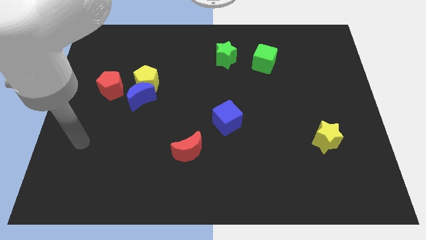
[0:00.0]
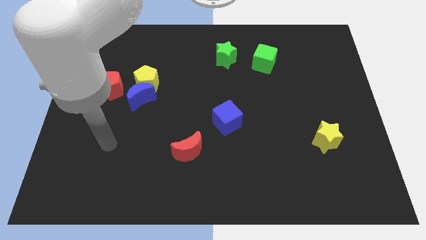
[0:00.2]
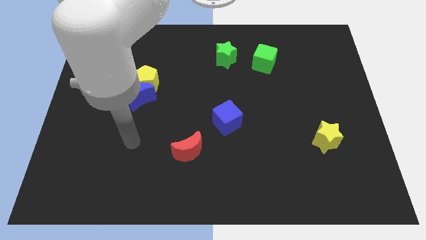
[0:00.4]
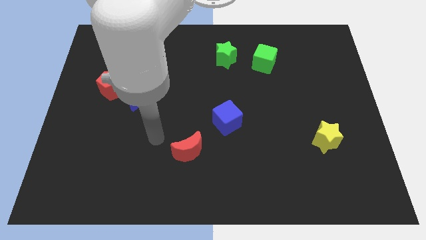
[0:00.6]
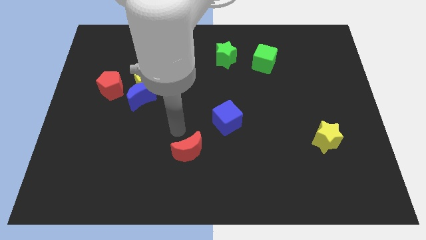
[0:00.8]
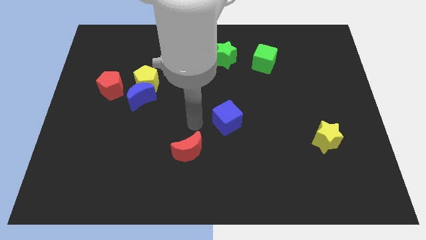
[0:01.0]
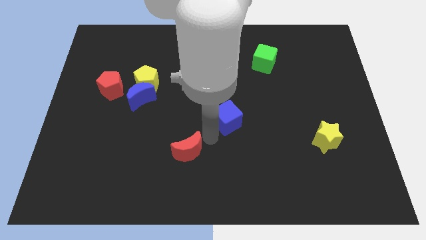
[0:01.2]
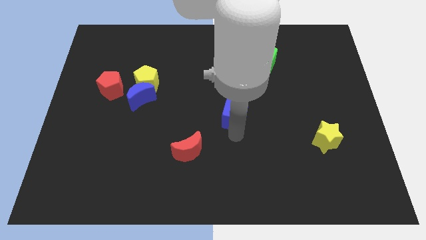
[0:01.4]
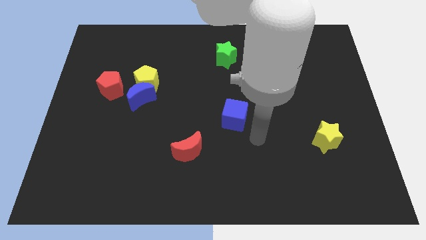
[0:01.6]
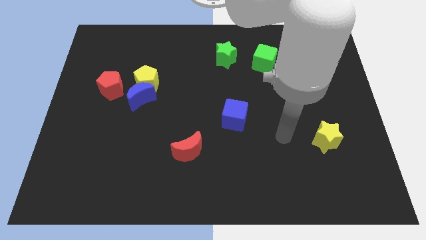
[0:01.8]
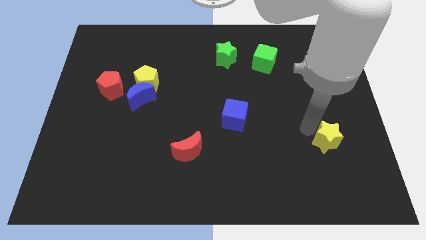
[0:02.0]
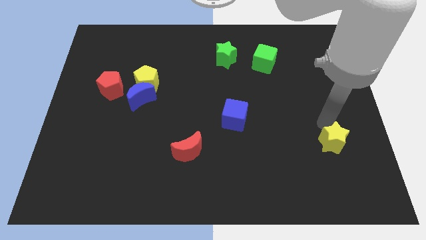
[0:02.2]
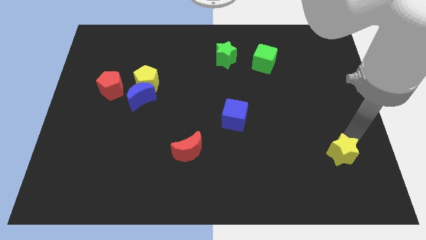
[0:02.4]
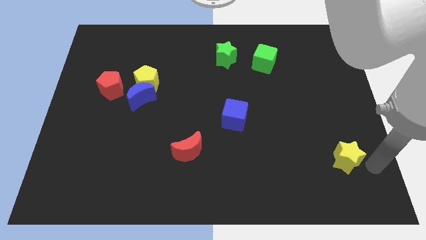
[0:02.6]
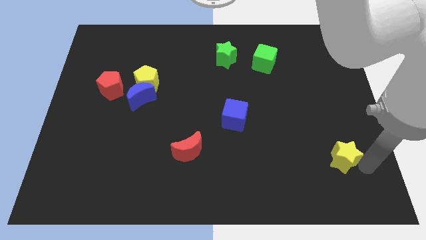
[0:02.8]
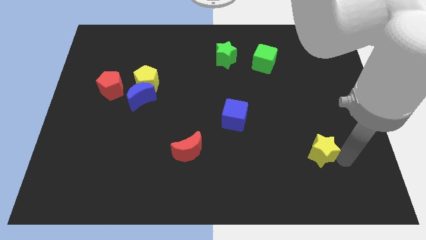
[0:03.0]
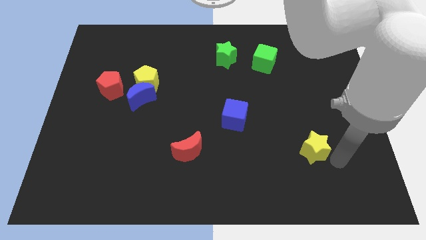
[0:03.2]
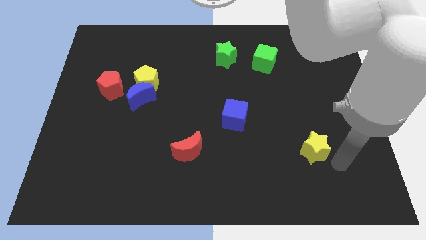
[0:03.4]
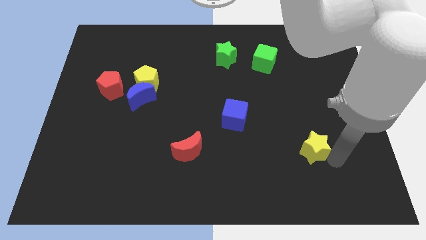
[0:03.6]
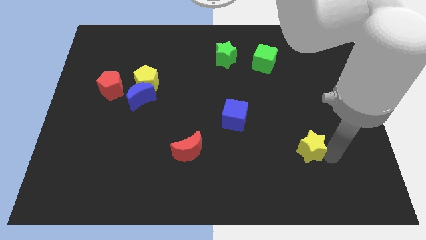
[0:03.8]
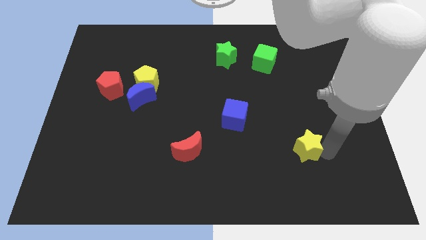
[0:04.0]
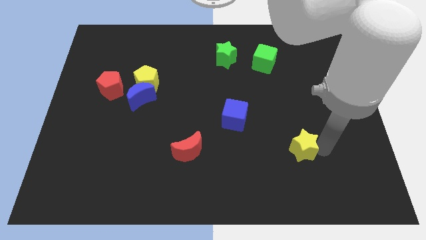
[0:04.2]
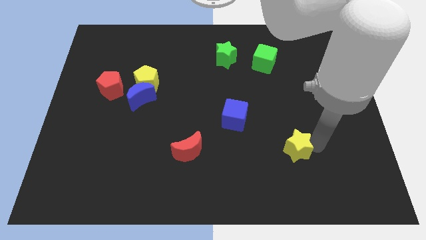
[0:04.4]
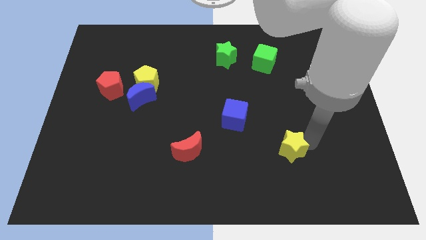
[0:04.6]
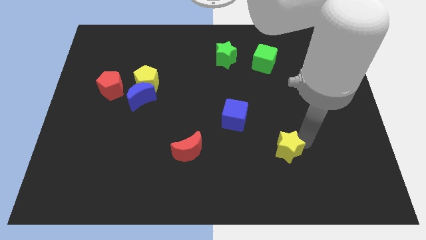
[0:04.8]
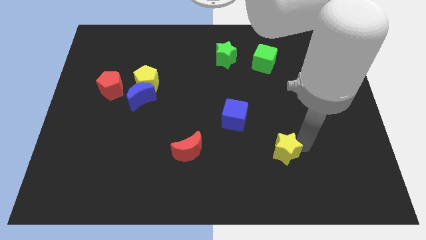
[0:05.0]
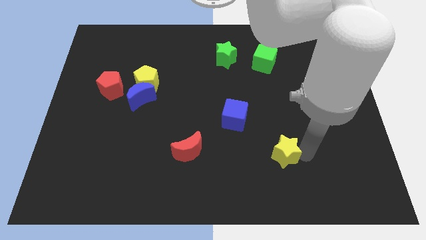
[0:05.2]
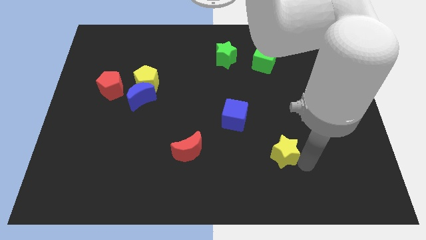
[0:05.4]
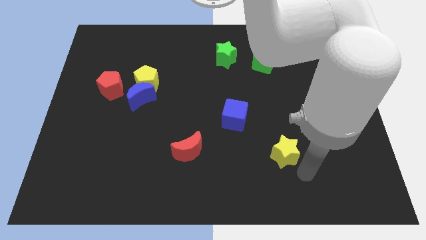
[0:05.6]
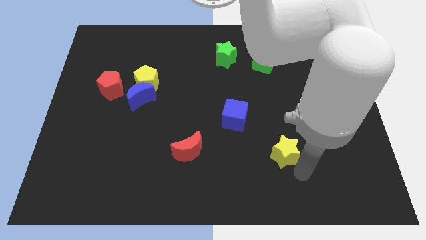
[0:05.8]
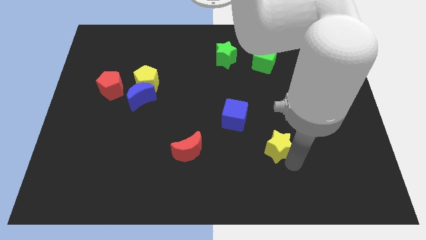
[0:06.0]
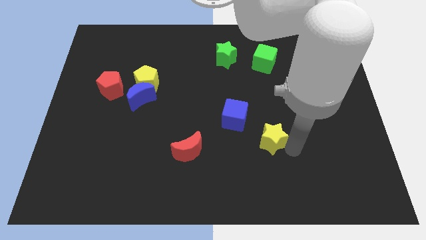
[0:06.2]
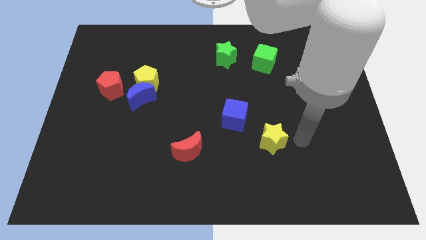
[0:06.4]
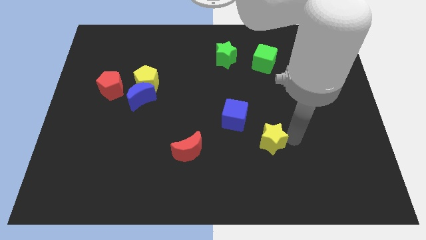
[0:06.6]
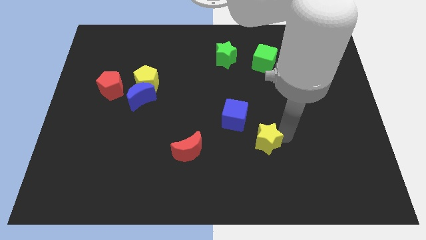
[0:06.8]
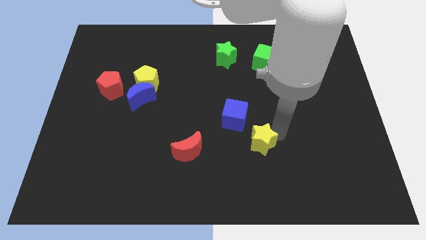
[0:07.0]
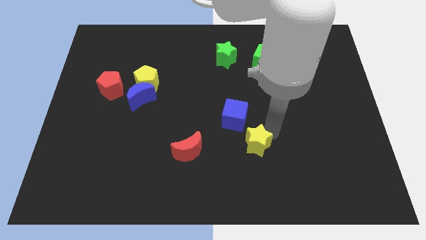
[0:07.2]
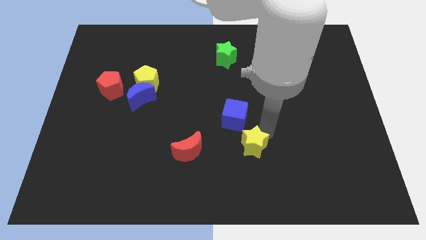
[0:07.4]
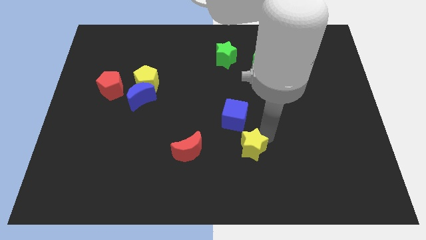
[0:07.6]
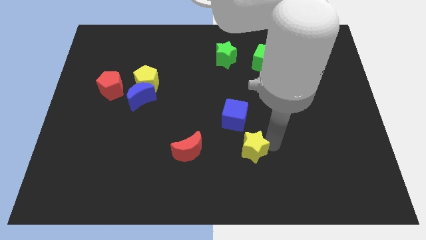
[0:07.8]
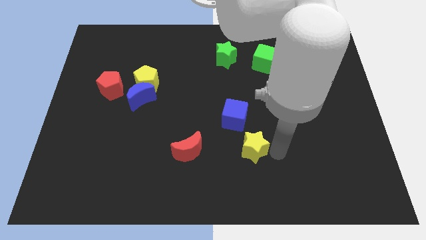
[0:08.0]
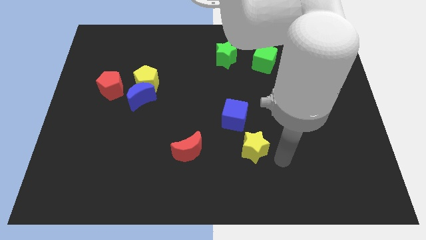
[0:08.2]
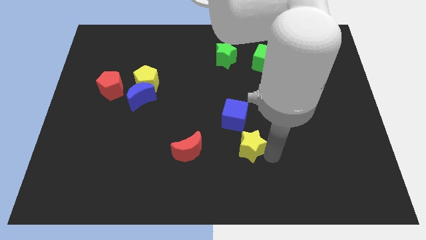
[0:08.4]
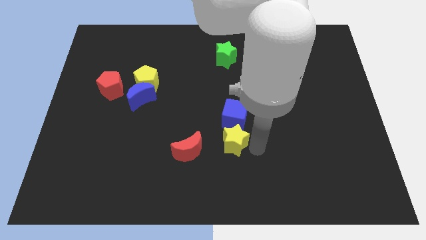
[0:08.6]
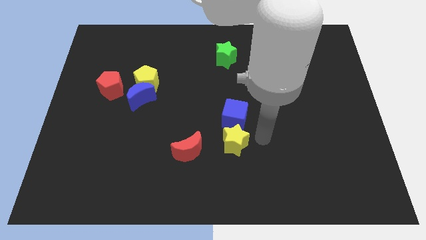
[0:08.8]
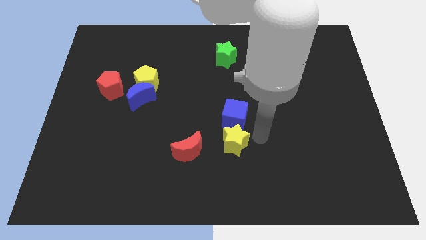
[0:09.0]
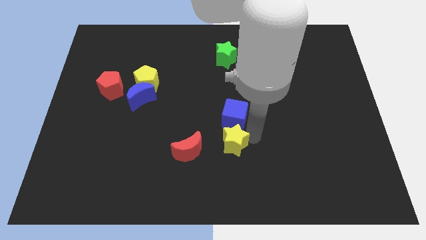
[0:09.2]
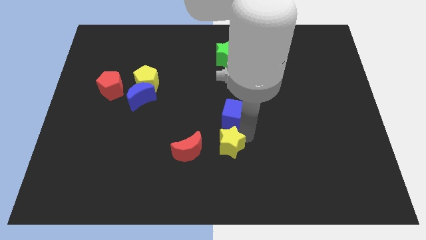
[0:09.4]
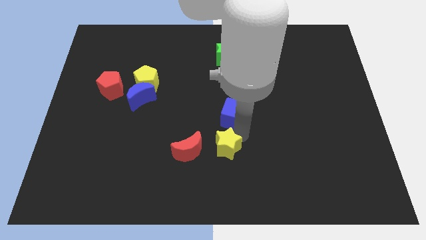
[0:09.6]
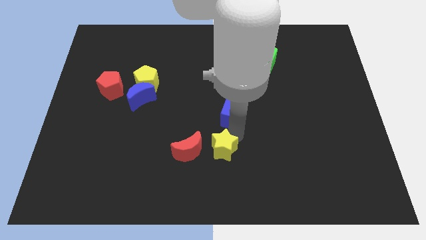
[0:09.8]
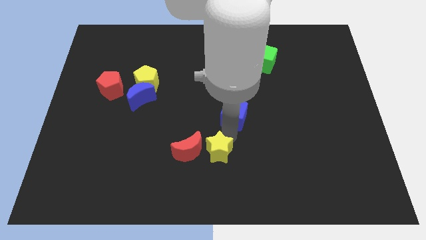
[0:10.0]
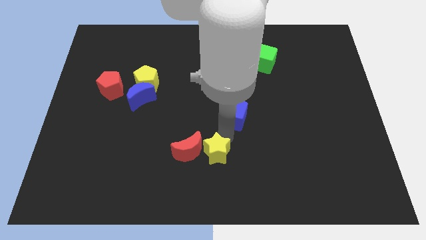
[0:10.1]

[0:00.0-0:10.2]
slide the yellow star towards the red moon

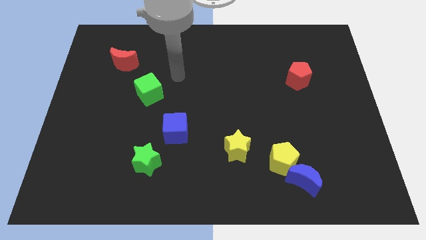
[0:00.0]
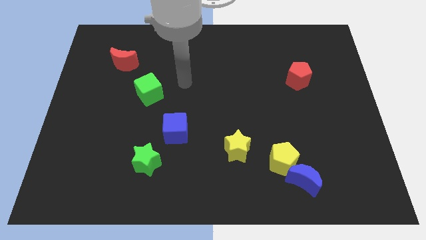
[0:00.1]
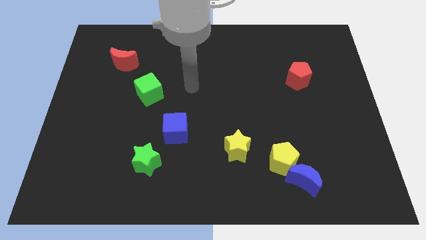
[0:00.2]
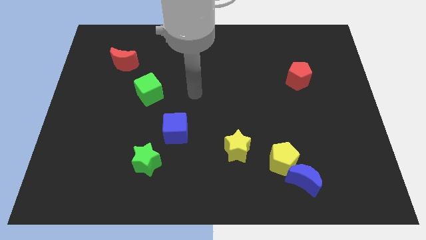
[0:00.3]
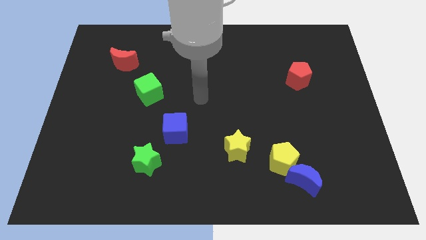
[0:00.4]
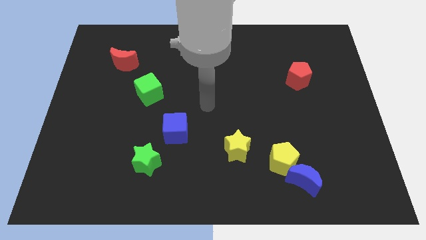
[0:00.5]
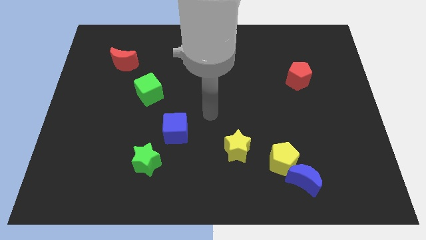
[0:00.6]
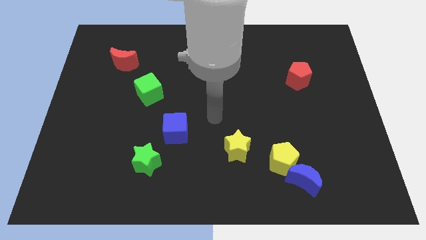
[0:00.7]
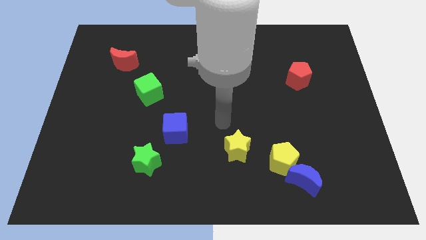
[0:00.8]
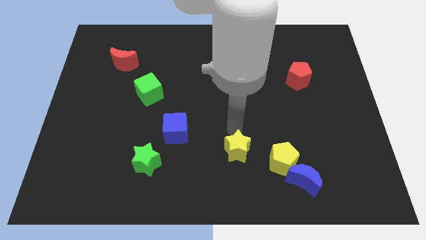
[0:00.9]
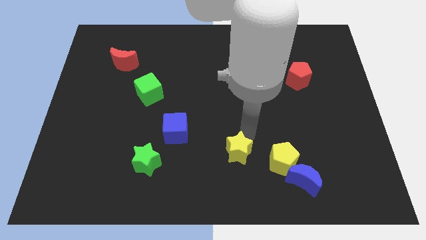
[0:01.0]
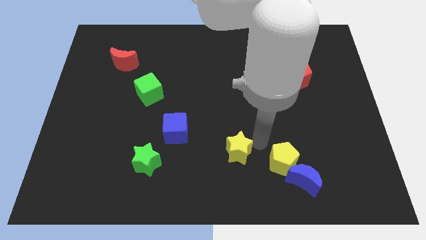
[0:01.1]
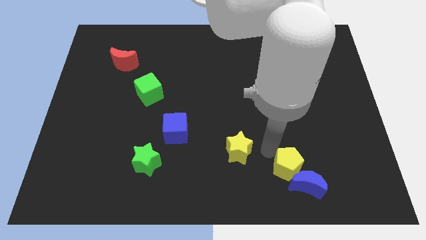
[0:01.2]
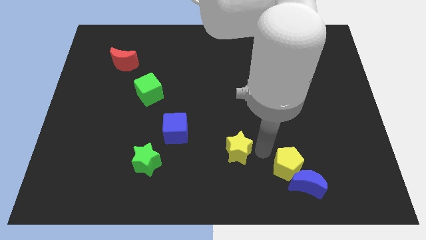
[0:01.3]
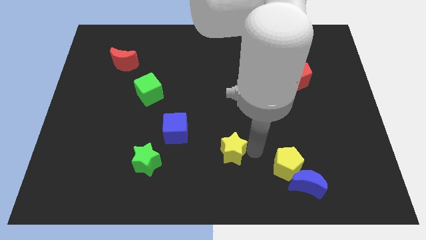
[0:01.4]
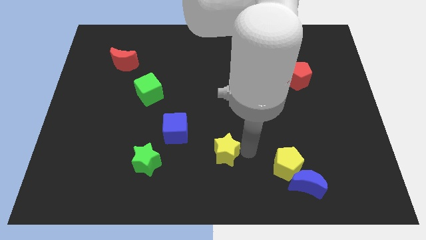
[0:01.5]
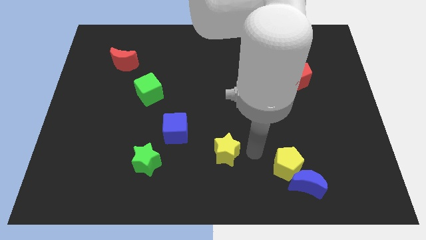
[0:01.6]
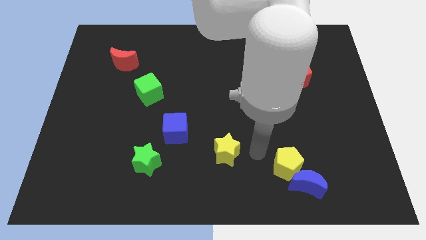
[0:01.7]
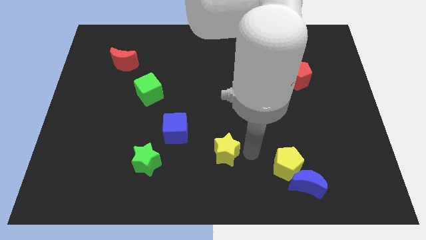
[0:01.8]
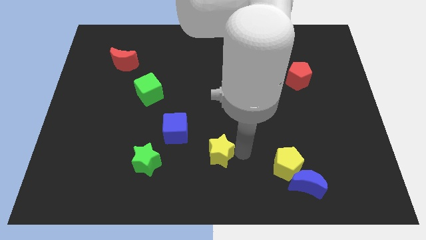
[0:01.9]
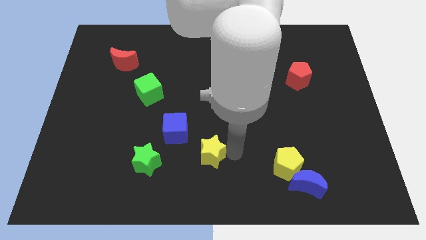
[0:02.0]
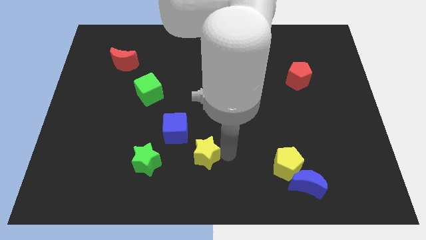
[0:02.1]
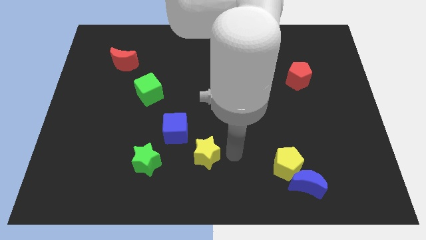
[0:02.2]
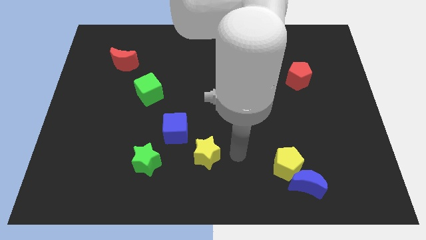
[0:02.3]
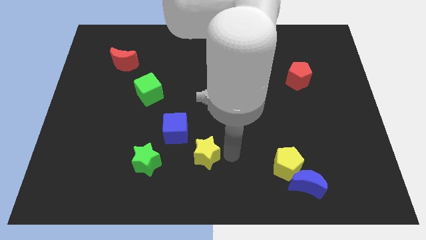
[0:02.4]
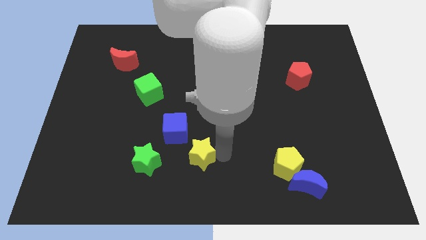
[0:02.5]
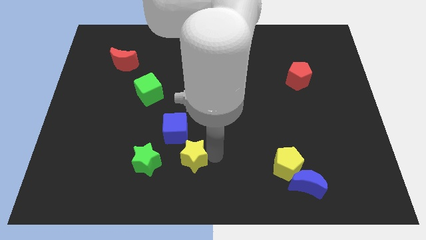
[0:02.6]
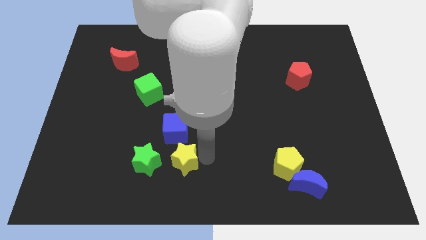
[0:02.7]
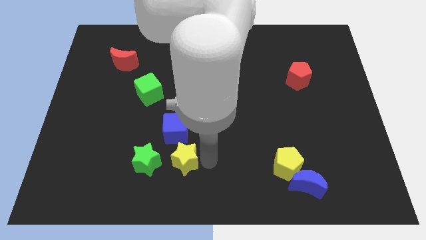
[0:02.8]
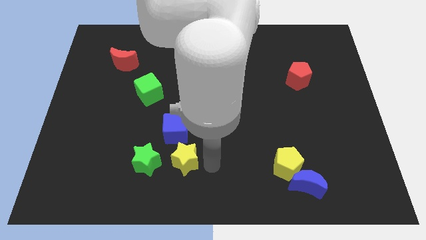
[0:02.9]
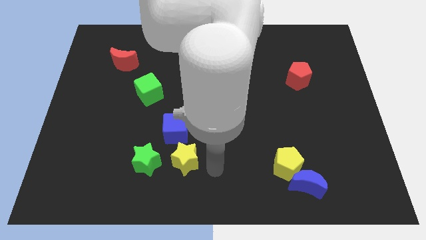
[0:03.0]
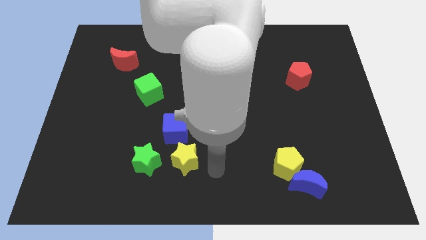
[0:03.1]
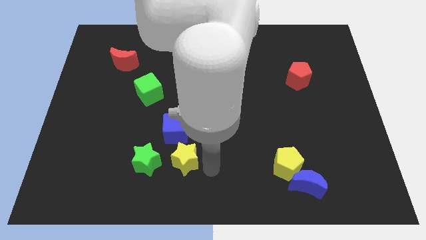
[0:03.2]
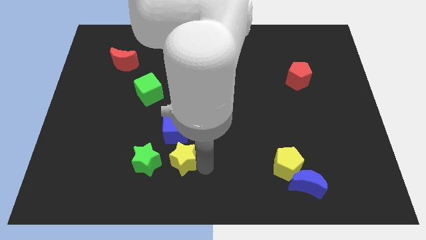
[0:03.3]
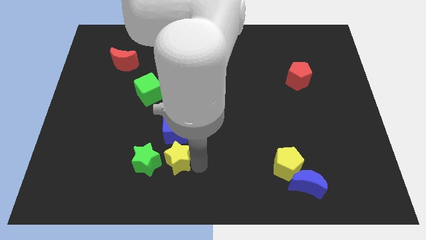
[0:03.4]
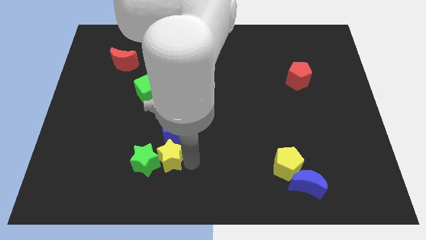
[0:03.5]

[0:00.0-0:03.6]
put the yellow star next to the green star
